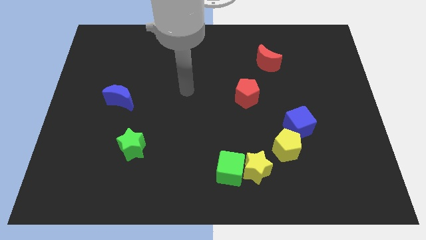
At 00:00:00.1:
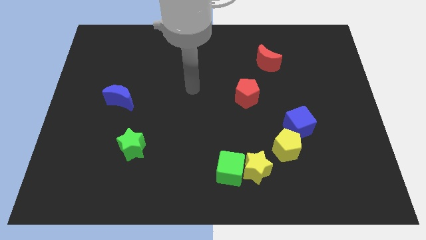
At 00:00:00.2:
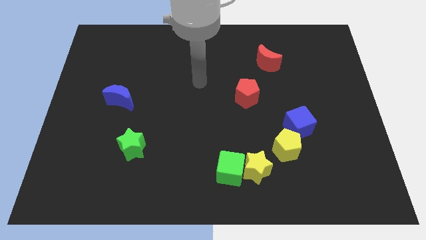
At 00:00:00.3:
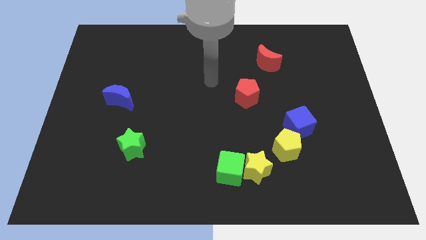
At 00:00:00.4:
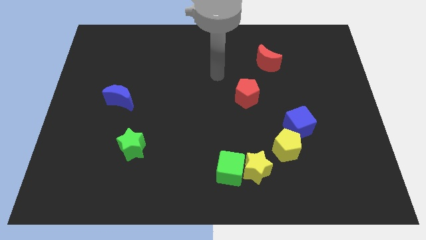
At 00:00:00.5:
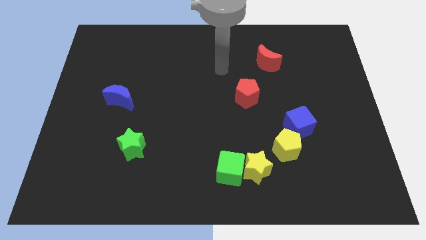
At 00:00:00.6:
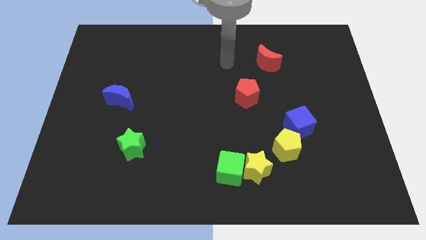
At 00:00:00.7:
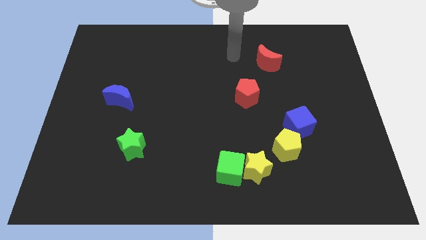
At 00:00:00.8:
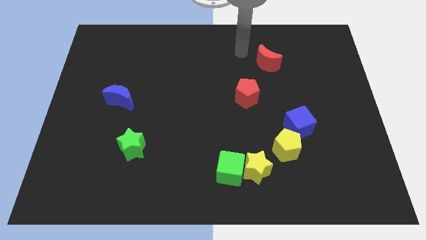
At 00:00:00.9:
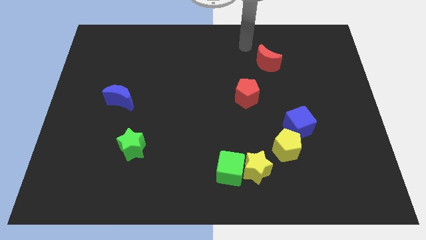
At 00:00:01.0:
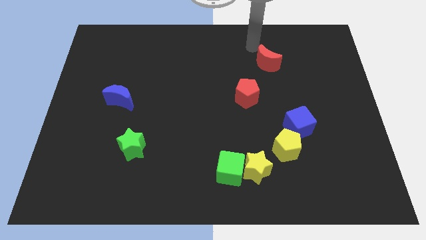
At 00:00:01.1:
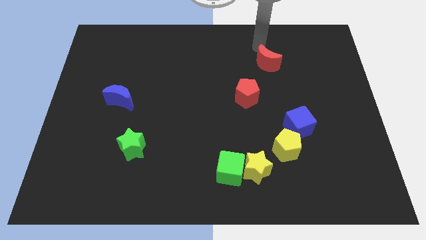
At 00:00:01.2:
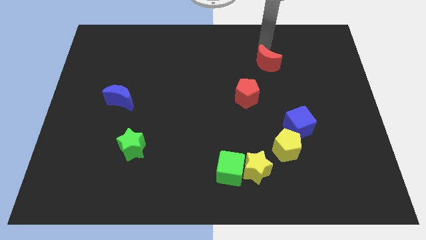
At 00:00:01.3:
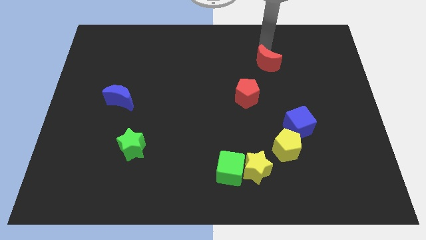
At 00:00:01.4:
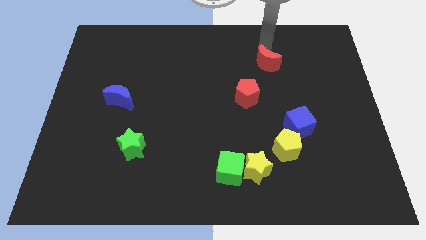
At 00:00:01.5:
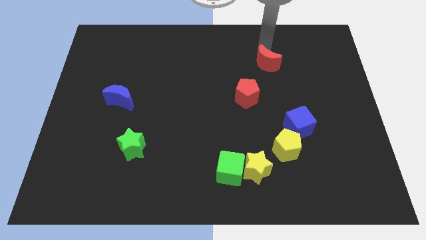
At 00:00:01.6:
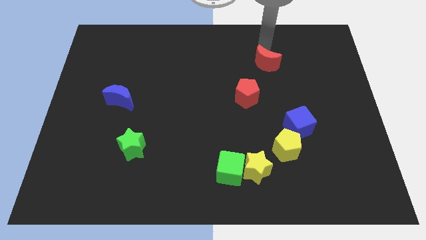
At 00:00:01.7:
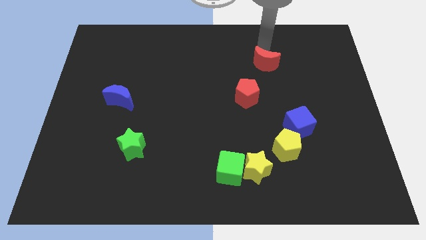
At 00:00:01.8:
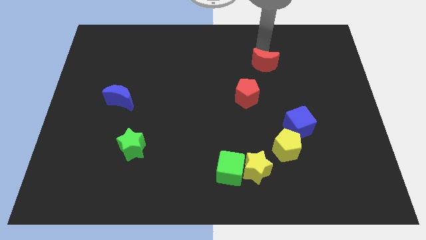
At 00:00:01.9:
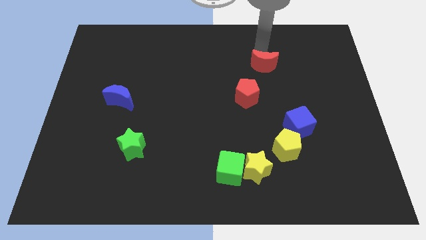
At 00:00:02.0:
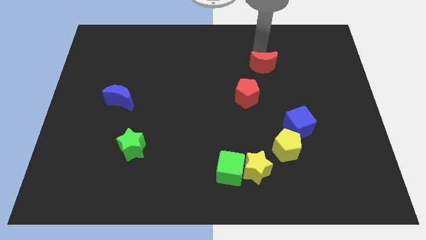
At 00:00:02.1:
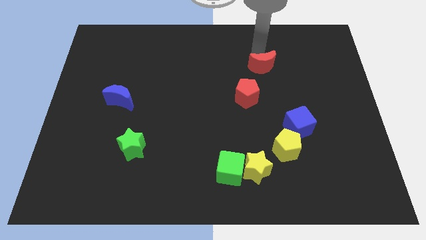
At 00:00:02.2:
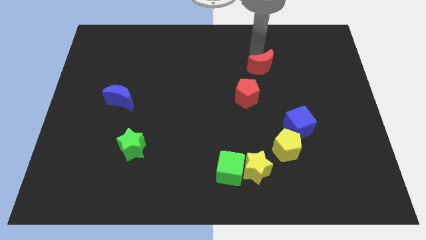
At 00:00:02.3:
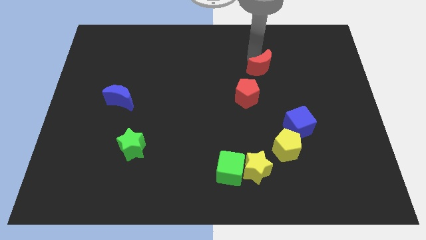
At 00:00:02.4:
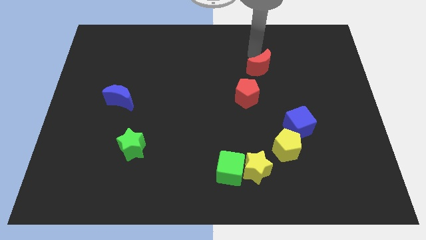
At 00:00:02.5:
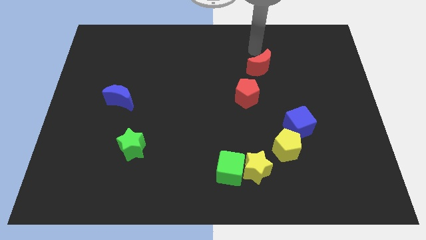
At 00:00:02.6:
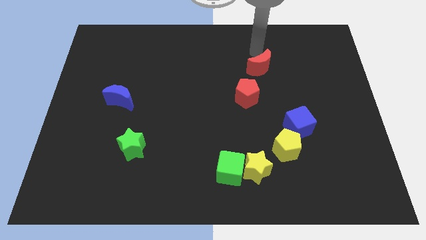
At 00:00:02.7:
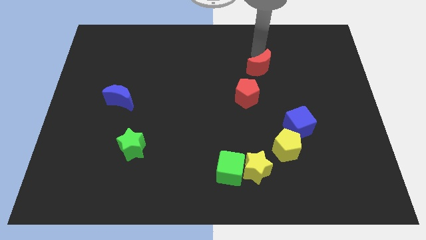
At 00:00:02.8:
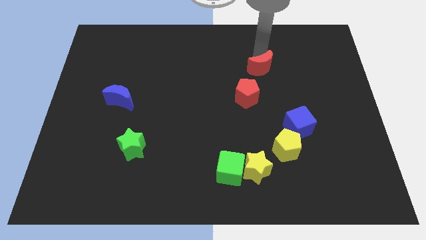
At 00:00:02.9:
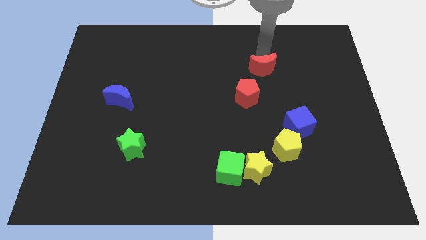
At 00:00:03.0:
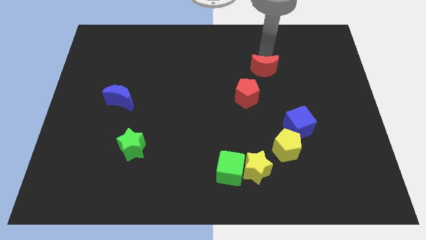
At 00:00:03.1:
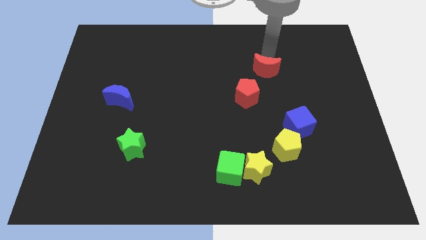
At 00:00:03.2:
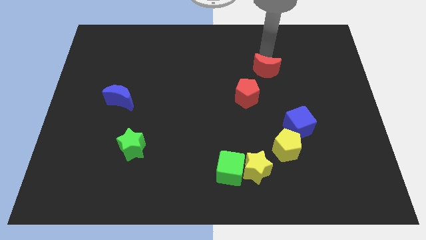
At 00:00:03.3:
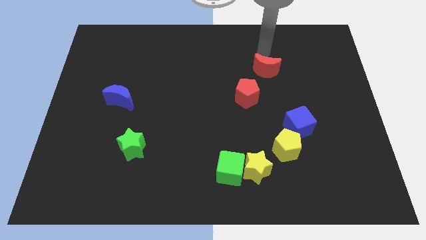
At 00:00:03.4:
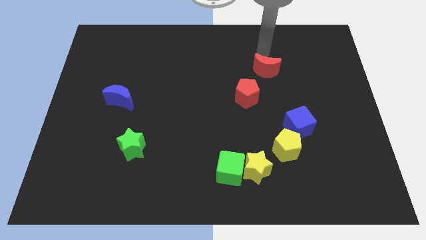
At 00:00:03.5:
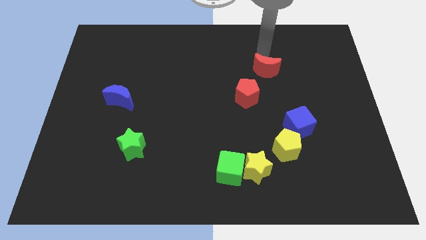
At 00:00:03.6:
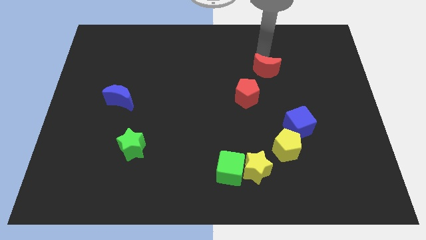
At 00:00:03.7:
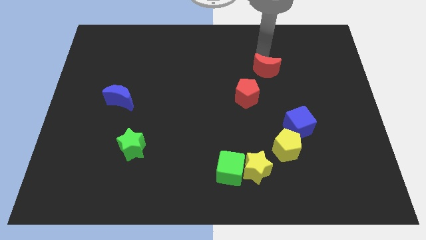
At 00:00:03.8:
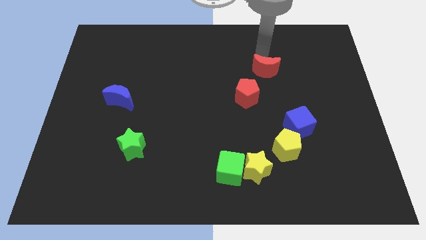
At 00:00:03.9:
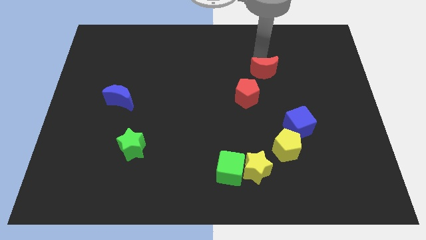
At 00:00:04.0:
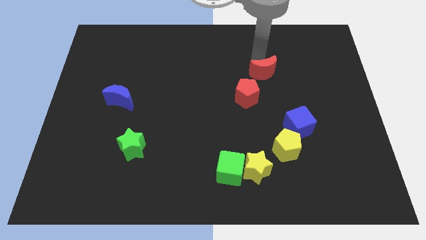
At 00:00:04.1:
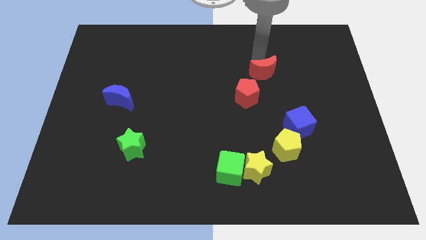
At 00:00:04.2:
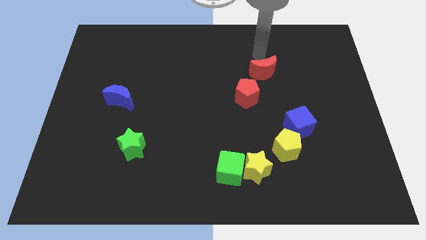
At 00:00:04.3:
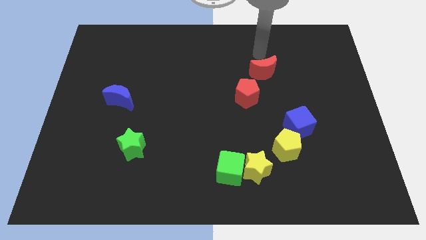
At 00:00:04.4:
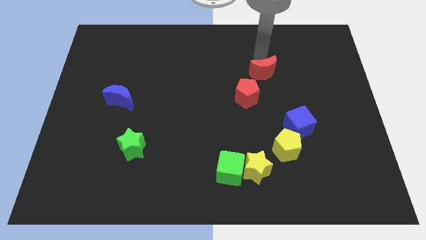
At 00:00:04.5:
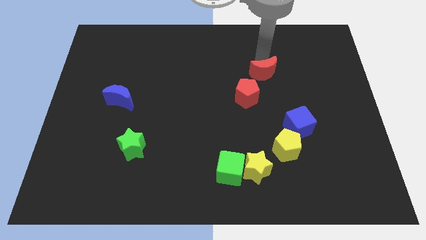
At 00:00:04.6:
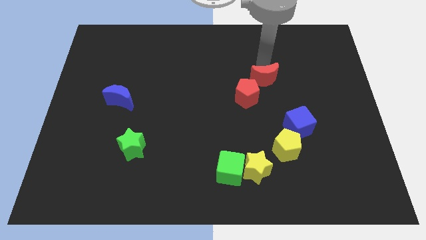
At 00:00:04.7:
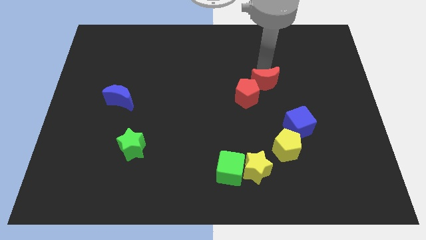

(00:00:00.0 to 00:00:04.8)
slightly slide the red moon down

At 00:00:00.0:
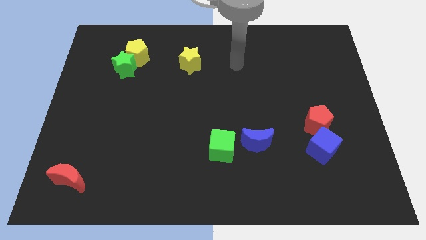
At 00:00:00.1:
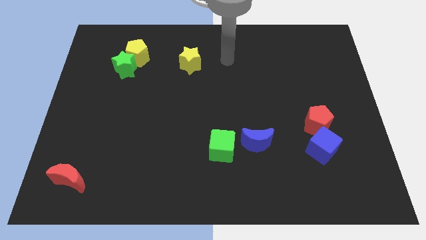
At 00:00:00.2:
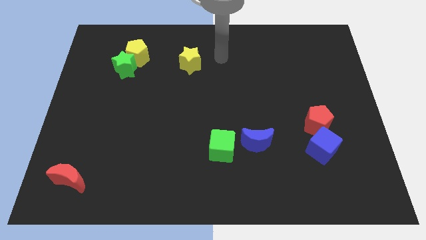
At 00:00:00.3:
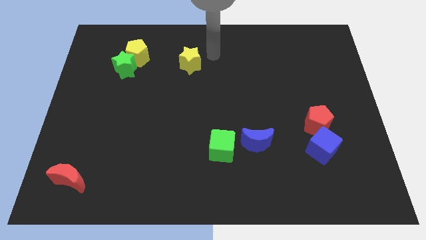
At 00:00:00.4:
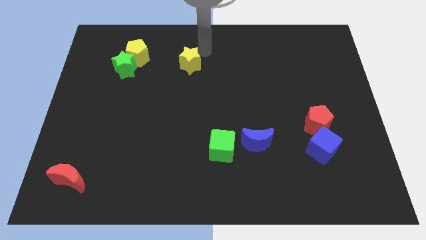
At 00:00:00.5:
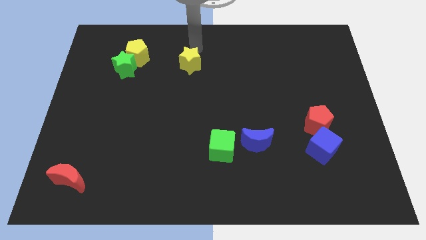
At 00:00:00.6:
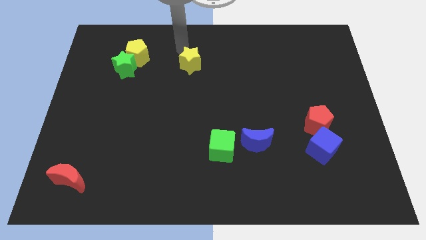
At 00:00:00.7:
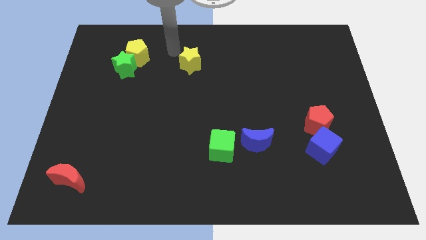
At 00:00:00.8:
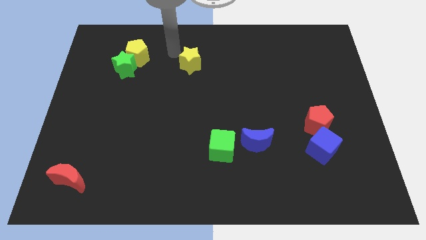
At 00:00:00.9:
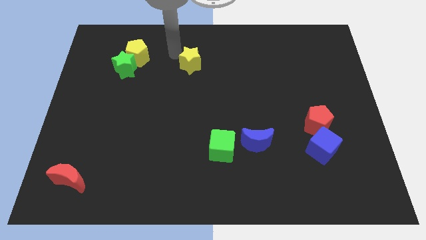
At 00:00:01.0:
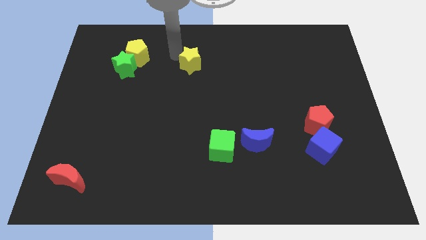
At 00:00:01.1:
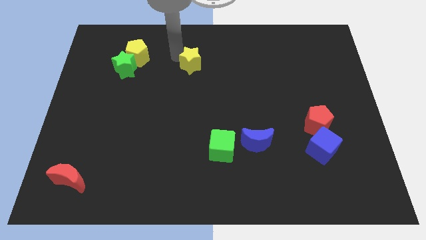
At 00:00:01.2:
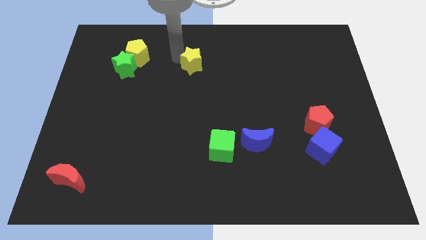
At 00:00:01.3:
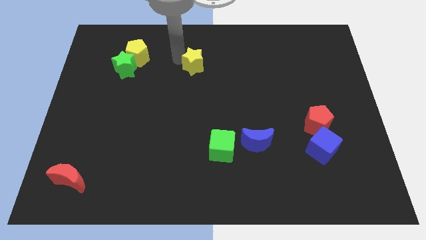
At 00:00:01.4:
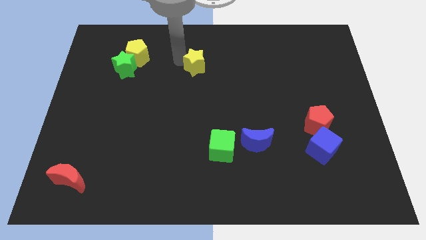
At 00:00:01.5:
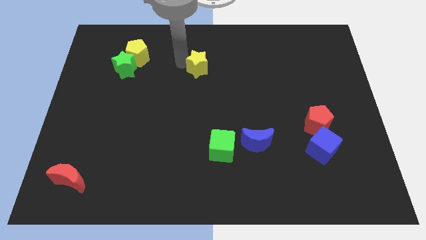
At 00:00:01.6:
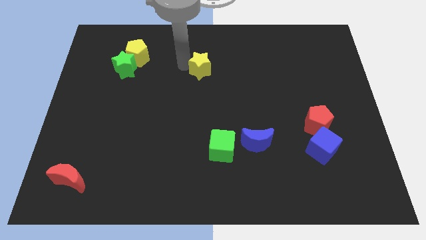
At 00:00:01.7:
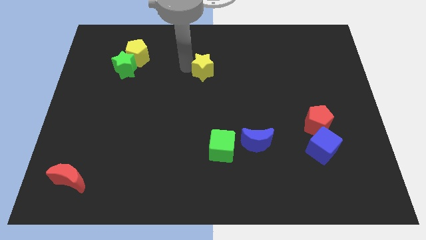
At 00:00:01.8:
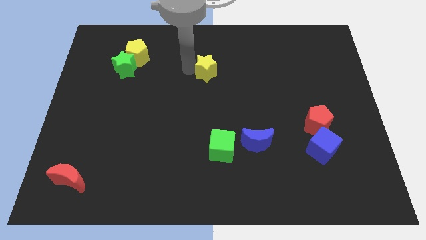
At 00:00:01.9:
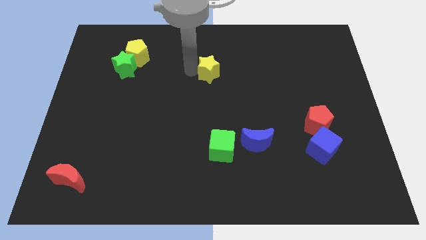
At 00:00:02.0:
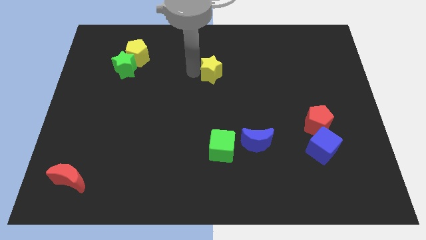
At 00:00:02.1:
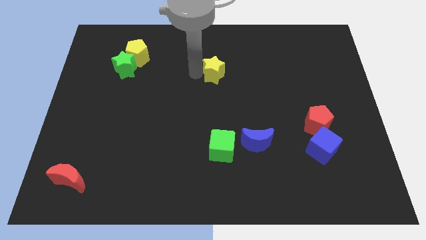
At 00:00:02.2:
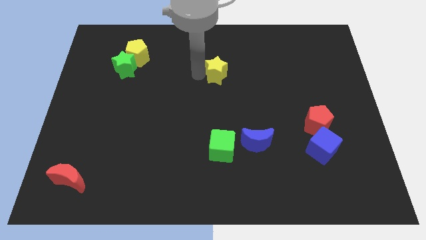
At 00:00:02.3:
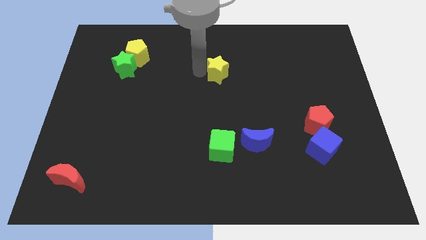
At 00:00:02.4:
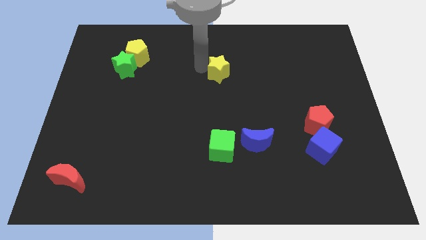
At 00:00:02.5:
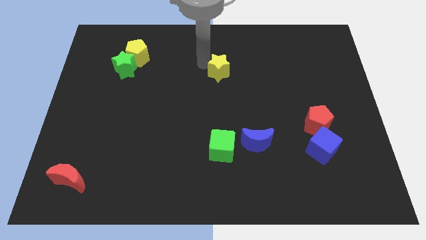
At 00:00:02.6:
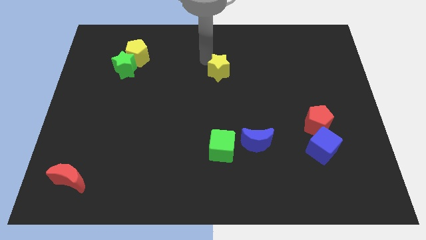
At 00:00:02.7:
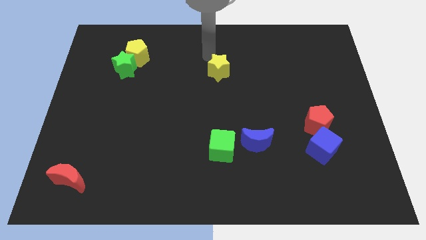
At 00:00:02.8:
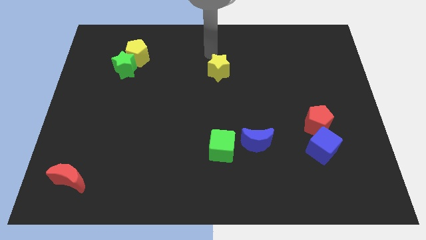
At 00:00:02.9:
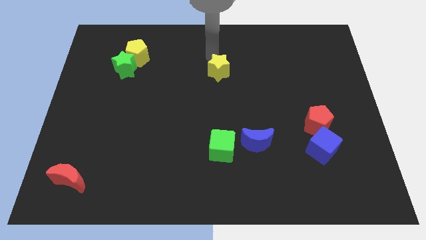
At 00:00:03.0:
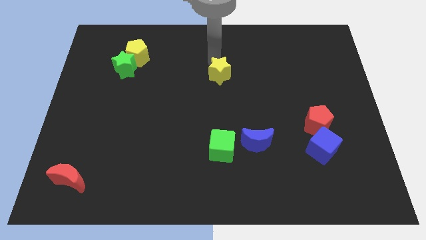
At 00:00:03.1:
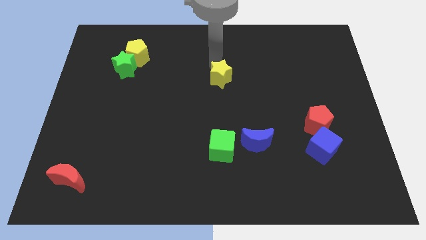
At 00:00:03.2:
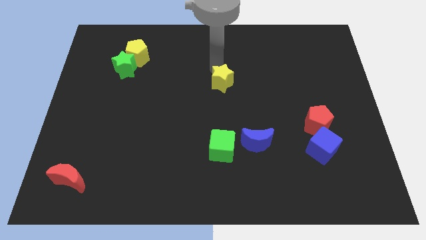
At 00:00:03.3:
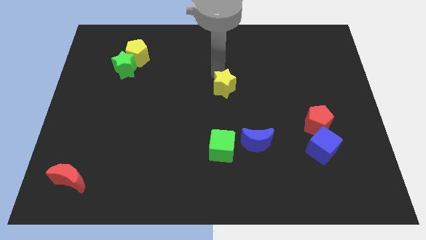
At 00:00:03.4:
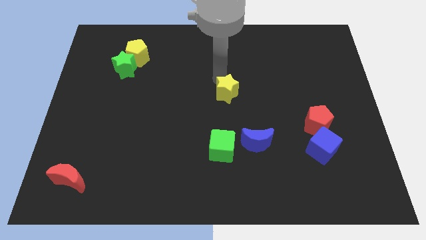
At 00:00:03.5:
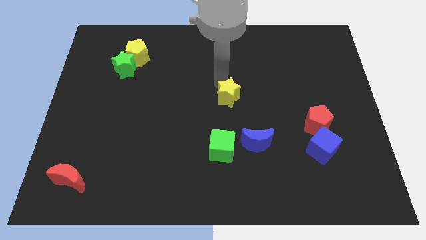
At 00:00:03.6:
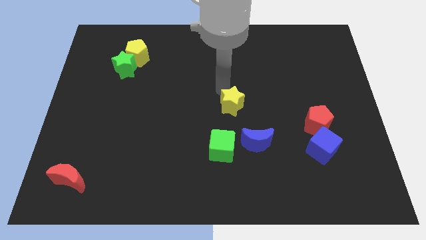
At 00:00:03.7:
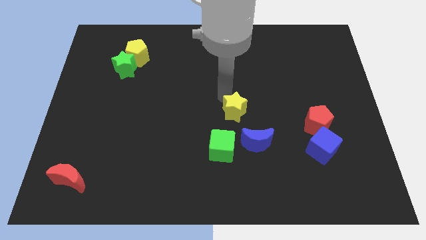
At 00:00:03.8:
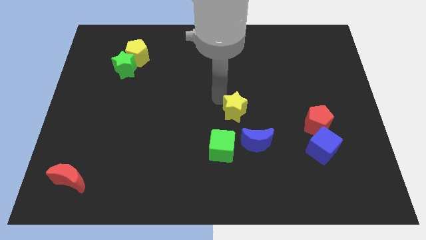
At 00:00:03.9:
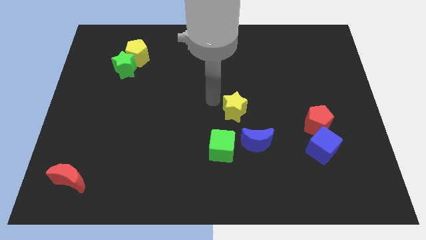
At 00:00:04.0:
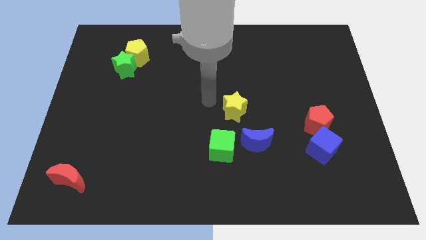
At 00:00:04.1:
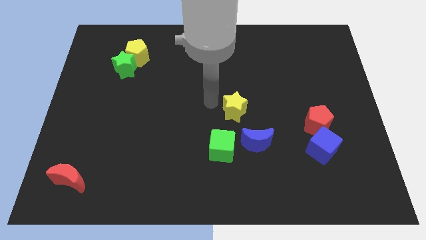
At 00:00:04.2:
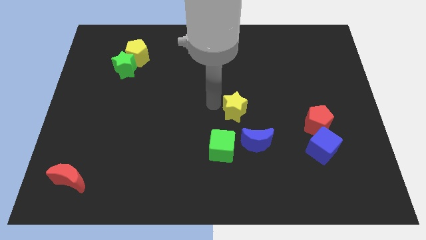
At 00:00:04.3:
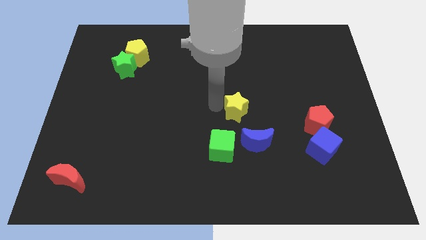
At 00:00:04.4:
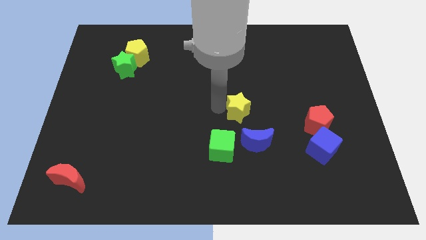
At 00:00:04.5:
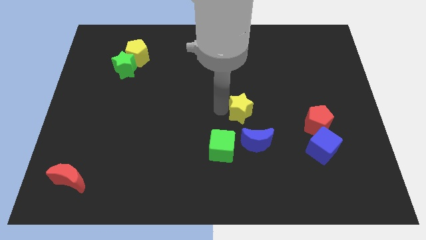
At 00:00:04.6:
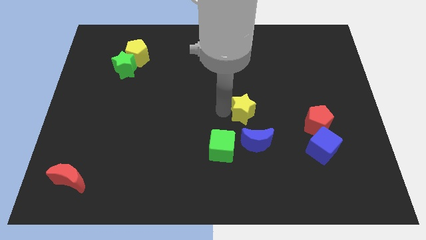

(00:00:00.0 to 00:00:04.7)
move the yellow star down and then to the right
